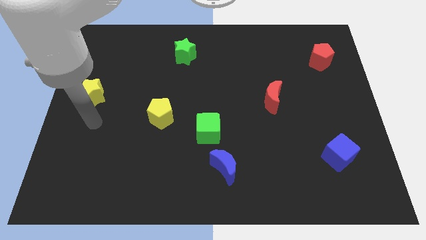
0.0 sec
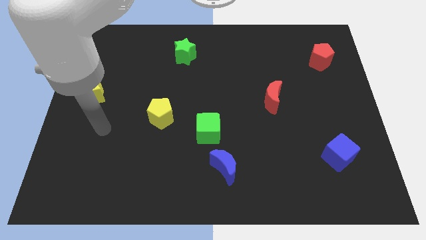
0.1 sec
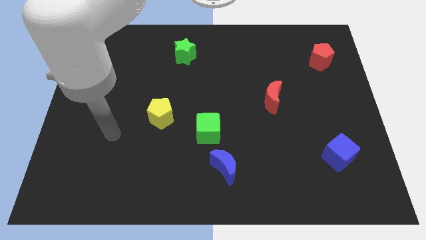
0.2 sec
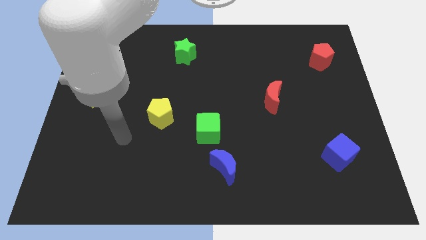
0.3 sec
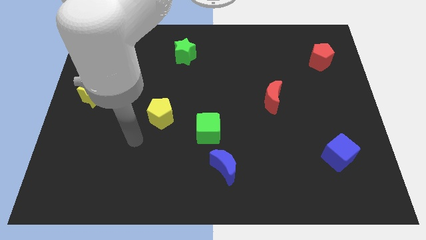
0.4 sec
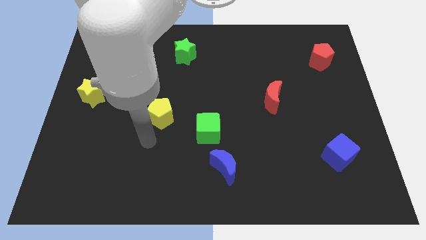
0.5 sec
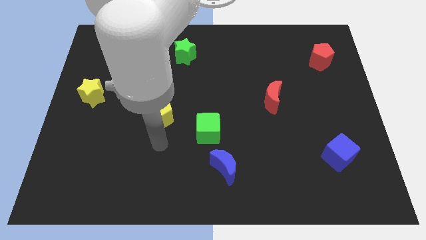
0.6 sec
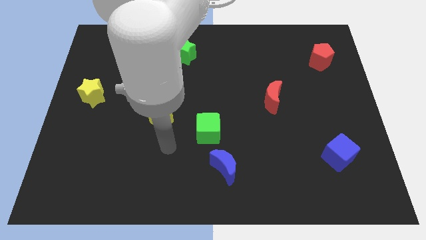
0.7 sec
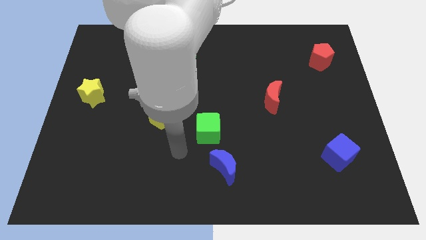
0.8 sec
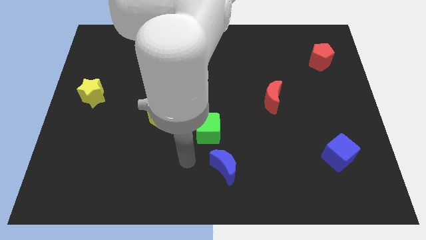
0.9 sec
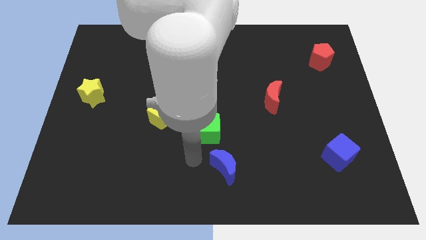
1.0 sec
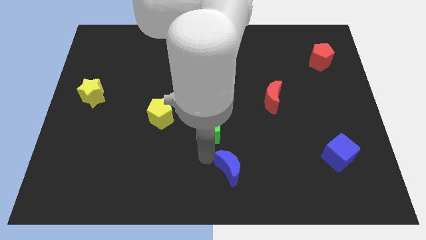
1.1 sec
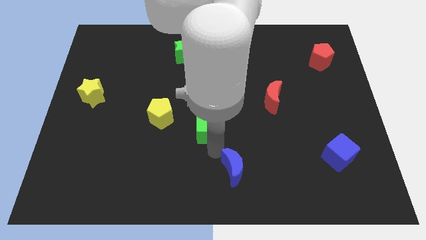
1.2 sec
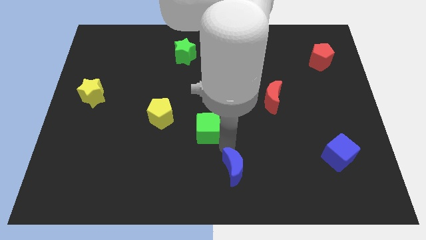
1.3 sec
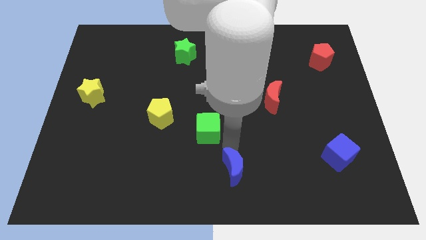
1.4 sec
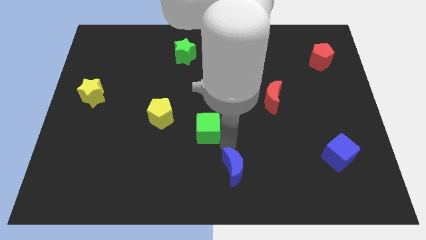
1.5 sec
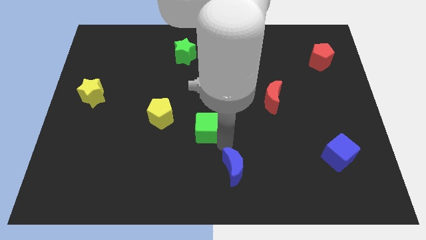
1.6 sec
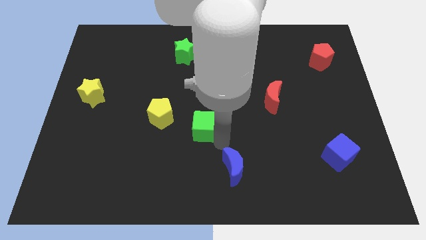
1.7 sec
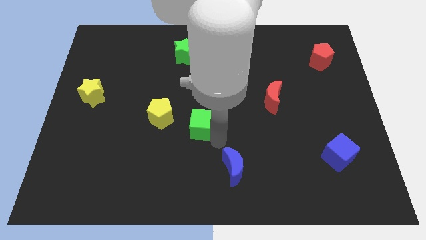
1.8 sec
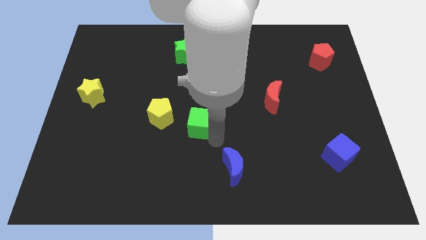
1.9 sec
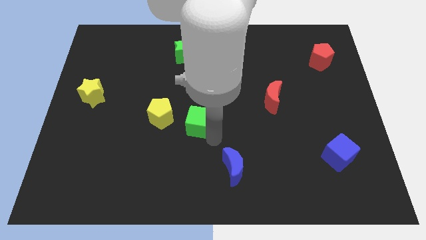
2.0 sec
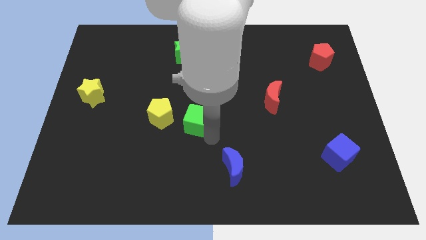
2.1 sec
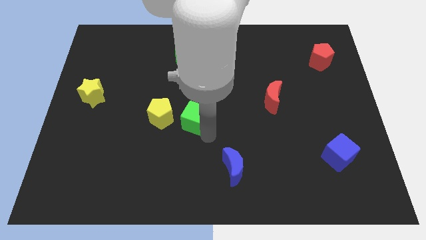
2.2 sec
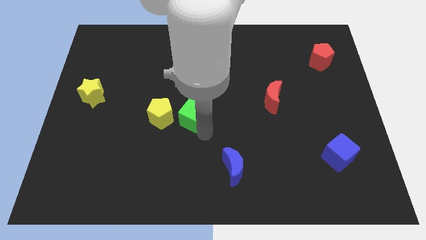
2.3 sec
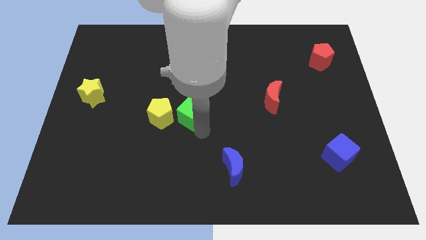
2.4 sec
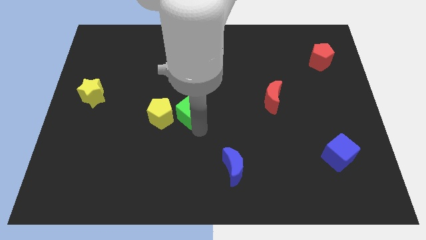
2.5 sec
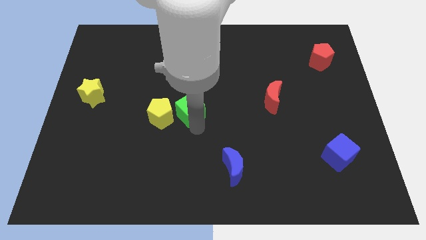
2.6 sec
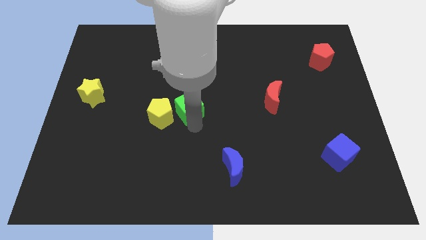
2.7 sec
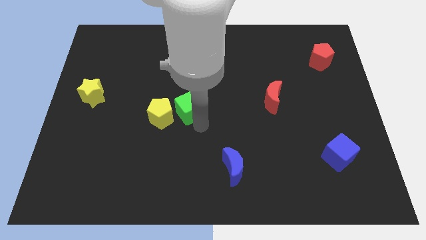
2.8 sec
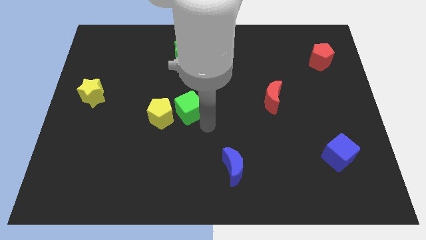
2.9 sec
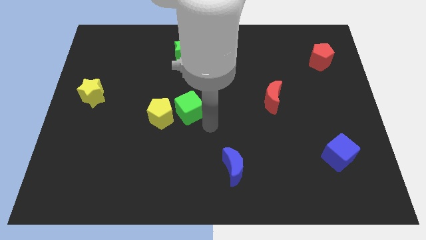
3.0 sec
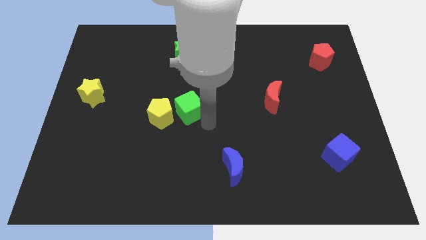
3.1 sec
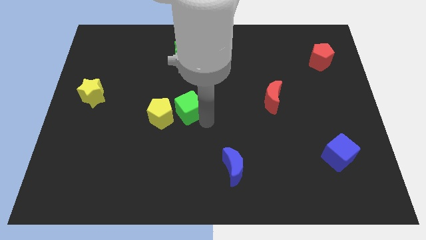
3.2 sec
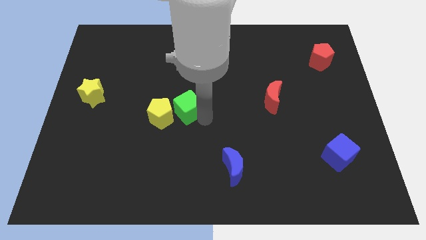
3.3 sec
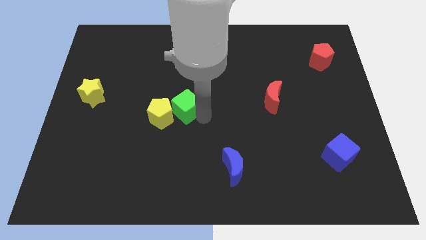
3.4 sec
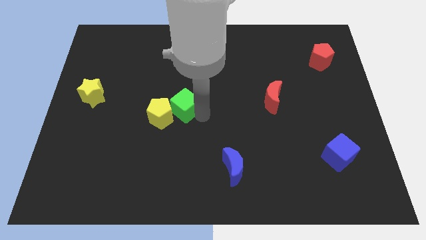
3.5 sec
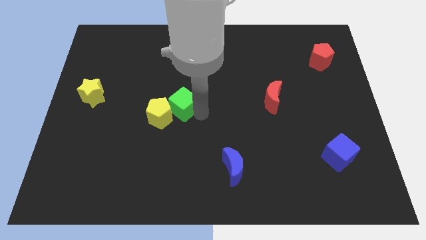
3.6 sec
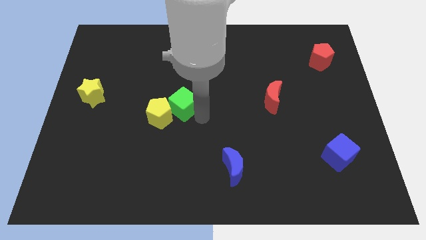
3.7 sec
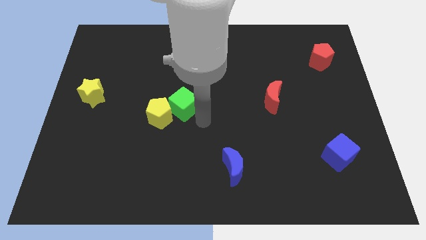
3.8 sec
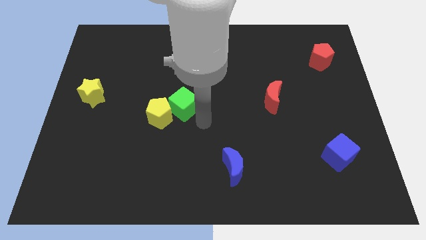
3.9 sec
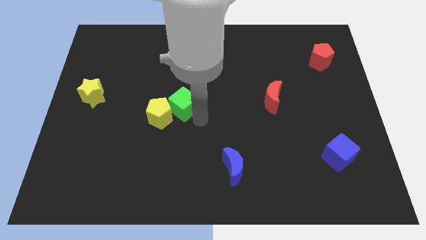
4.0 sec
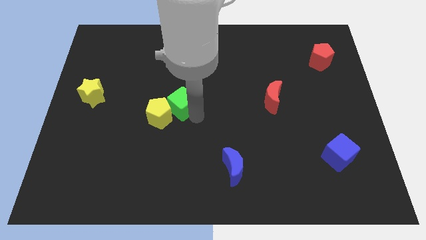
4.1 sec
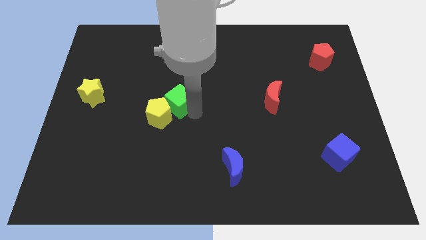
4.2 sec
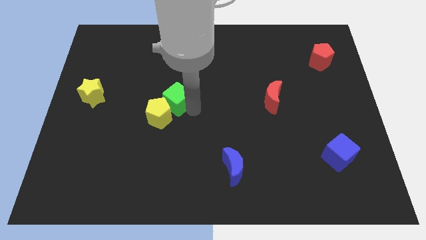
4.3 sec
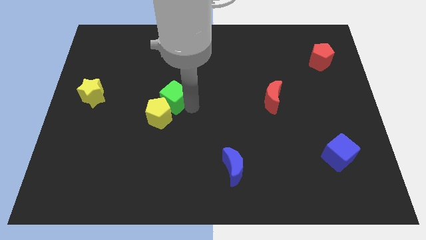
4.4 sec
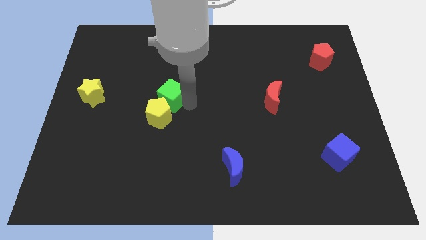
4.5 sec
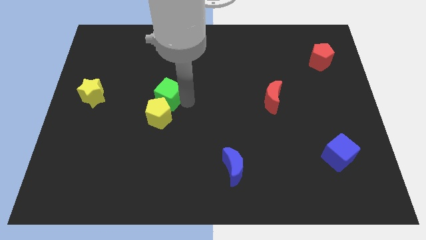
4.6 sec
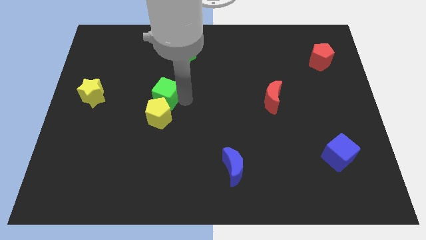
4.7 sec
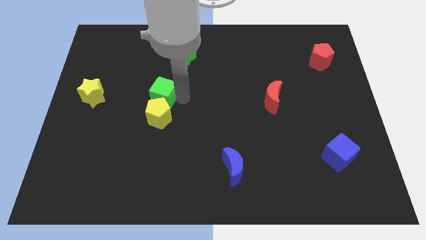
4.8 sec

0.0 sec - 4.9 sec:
slide the green cube to the top left side of the yellow pentagon

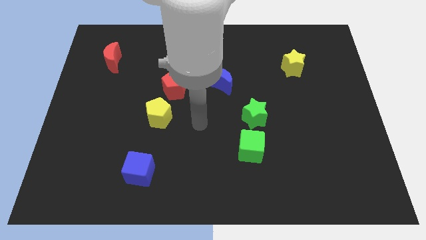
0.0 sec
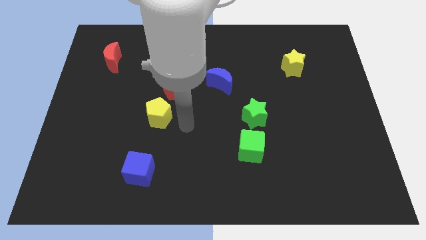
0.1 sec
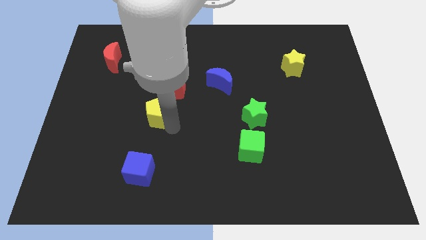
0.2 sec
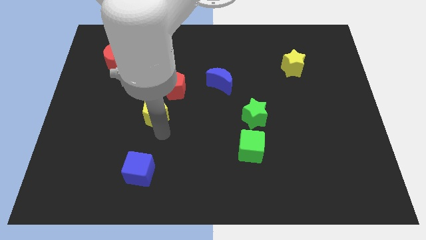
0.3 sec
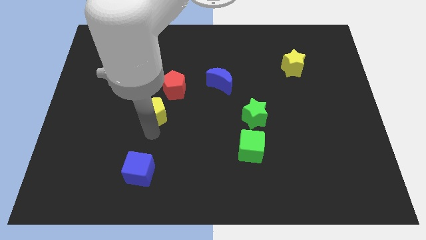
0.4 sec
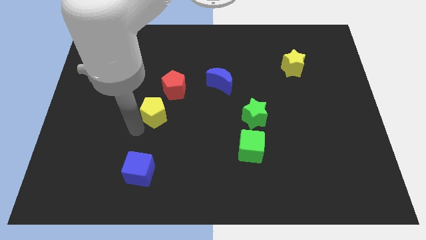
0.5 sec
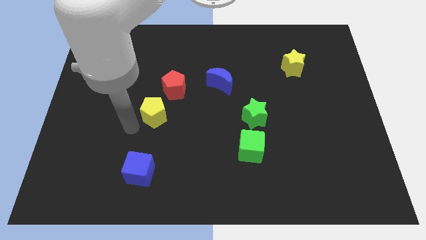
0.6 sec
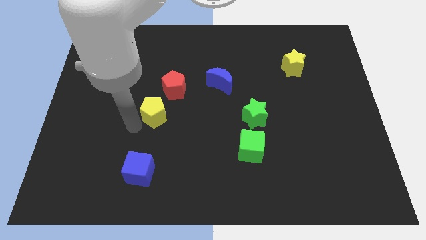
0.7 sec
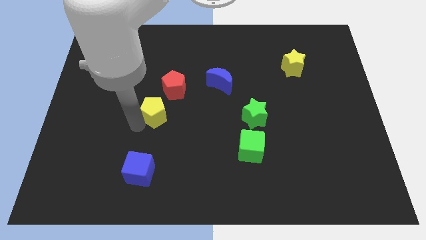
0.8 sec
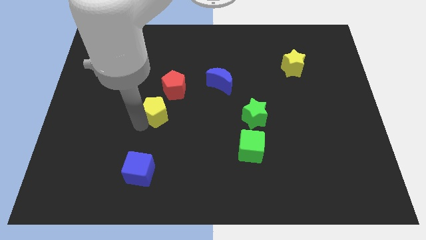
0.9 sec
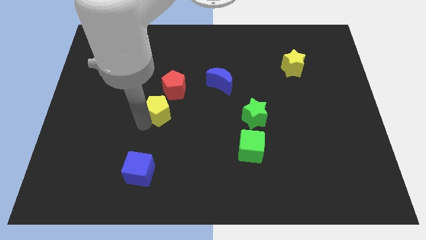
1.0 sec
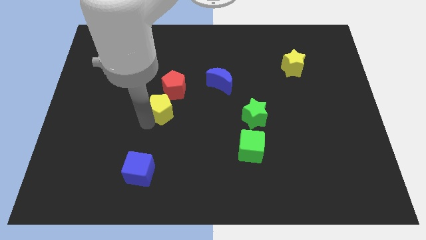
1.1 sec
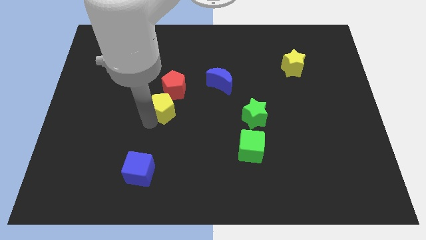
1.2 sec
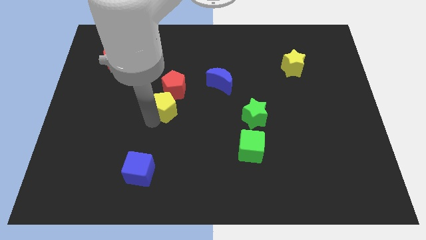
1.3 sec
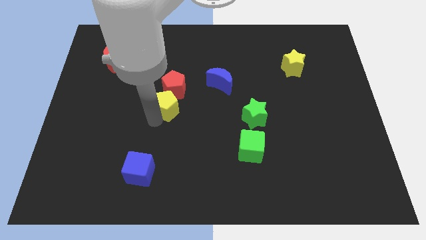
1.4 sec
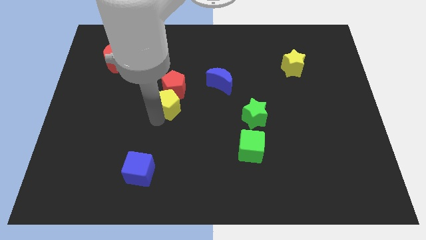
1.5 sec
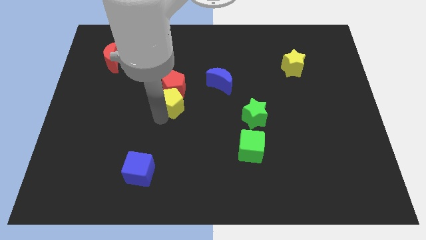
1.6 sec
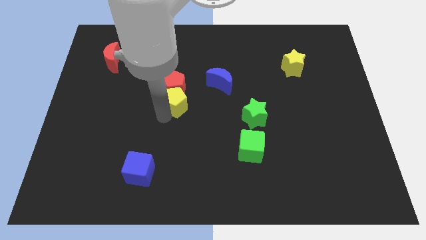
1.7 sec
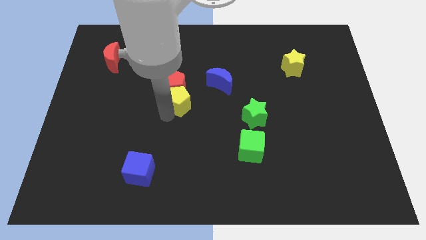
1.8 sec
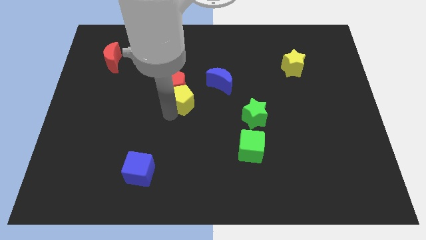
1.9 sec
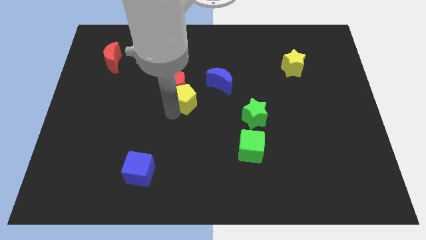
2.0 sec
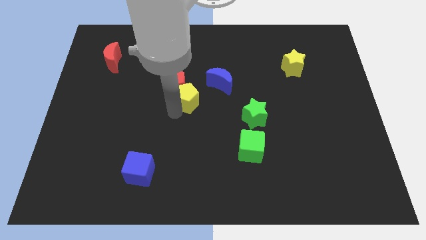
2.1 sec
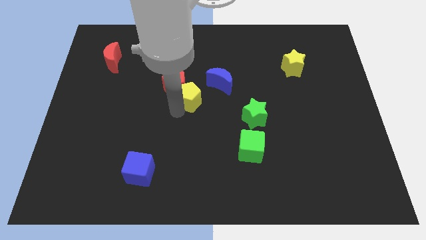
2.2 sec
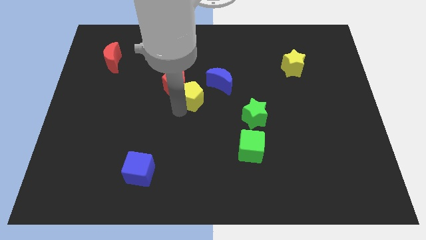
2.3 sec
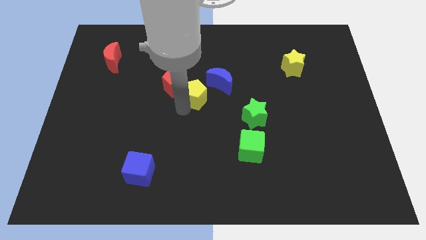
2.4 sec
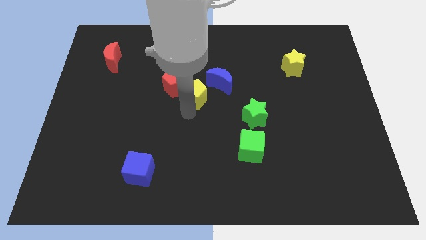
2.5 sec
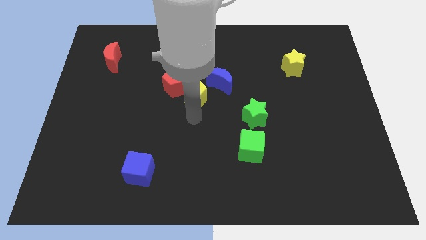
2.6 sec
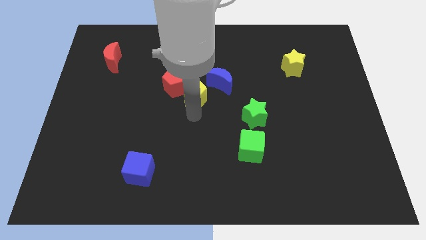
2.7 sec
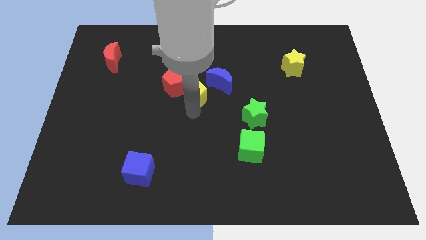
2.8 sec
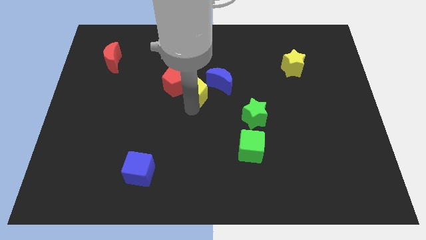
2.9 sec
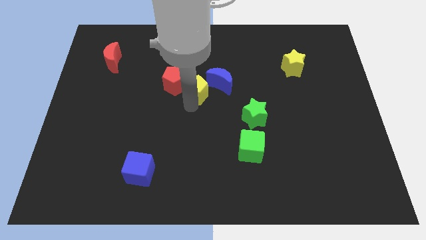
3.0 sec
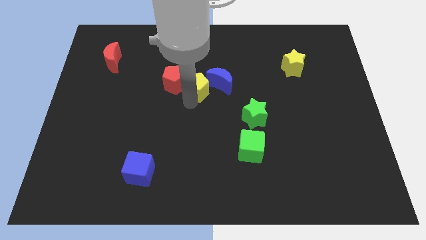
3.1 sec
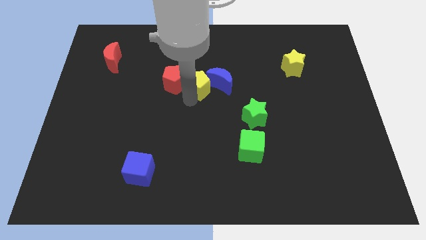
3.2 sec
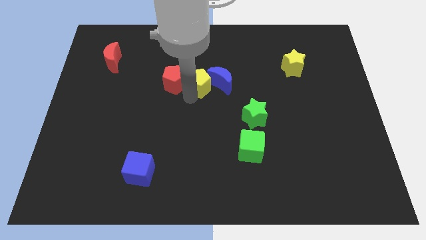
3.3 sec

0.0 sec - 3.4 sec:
move the yellow pentagon to the top right side of the red pentagon
